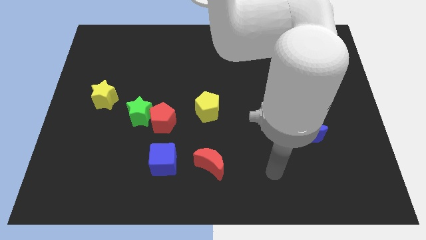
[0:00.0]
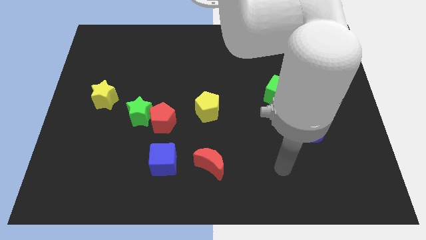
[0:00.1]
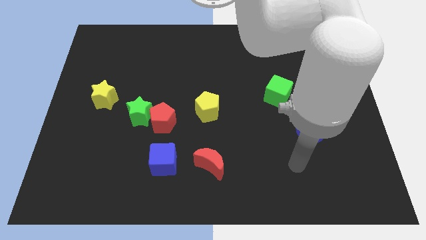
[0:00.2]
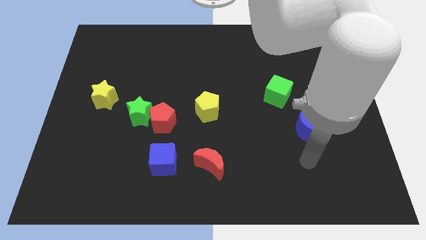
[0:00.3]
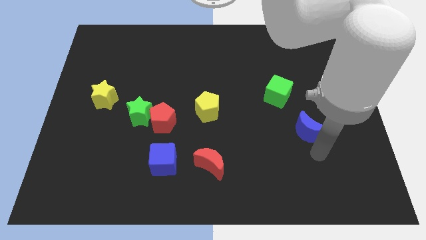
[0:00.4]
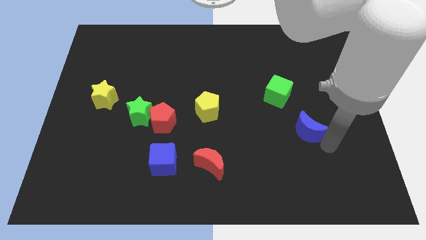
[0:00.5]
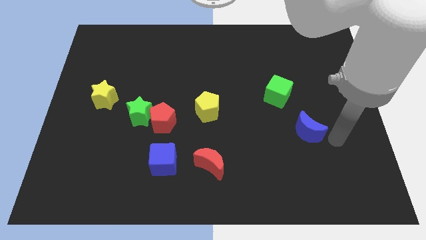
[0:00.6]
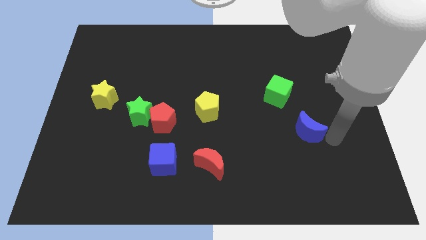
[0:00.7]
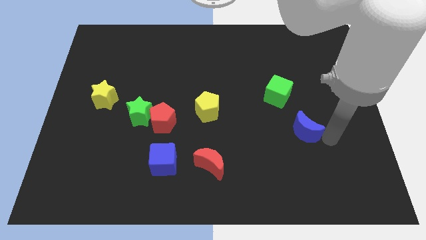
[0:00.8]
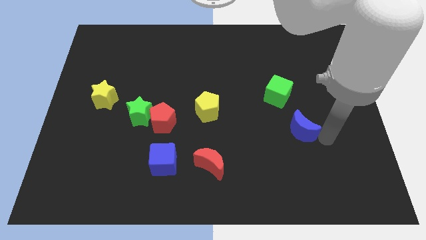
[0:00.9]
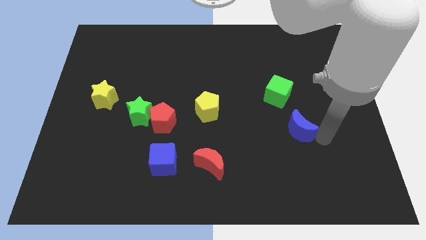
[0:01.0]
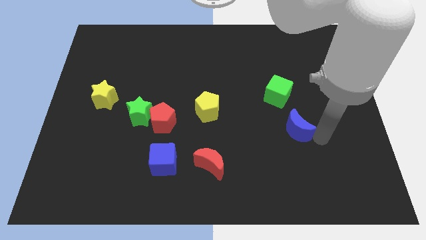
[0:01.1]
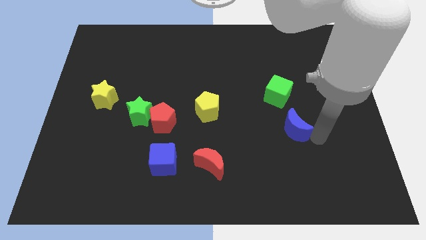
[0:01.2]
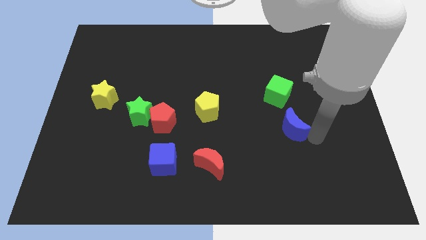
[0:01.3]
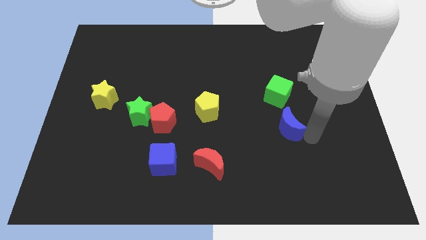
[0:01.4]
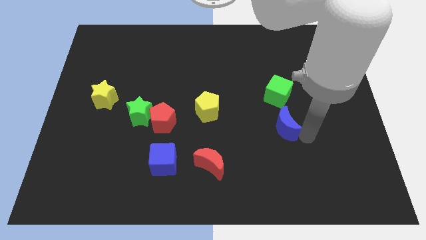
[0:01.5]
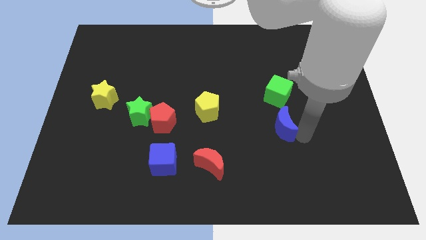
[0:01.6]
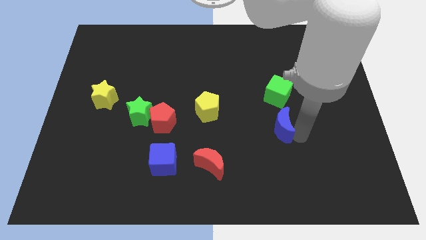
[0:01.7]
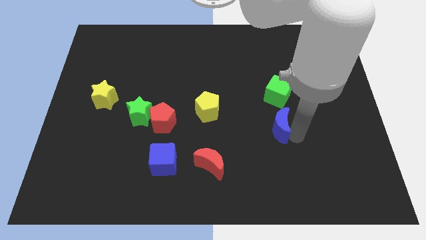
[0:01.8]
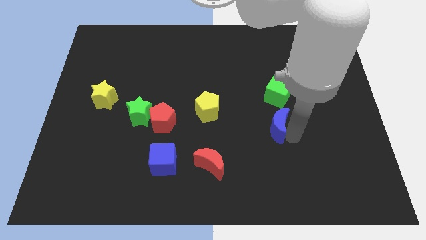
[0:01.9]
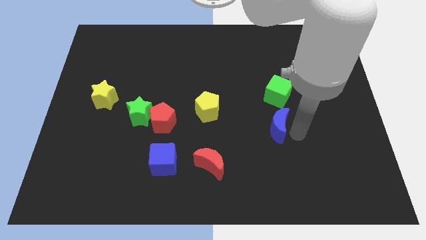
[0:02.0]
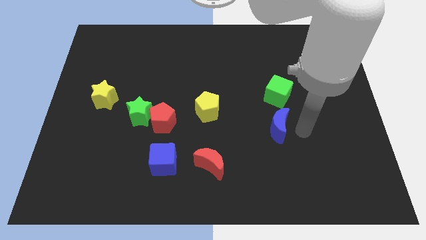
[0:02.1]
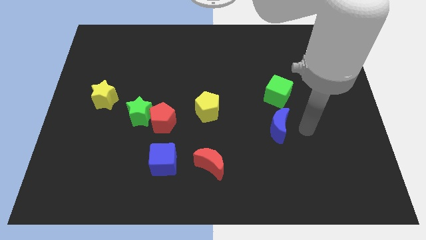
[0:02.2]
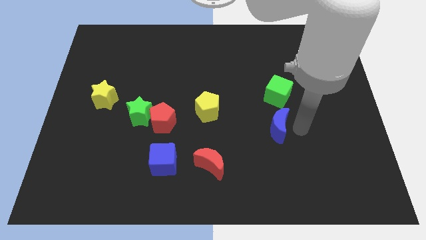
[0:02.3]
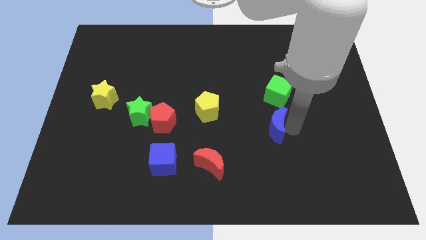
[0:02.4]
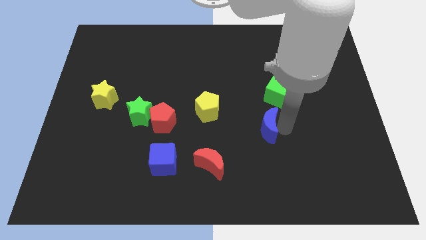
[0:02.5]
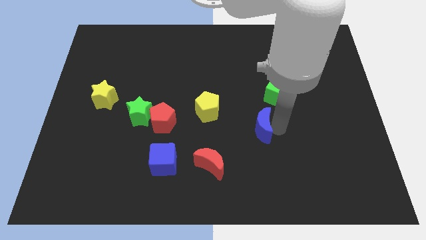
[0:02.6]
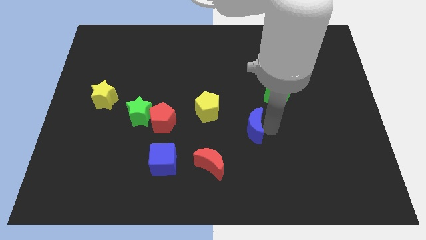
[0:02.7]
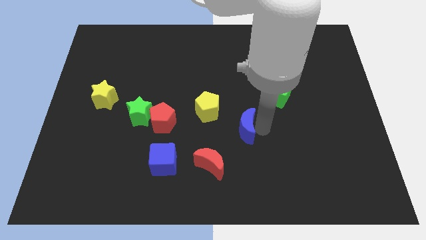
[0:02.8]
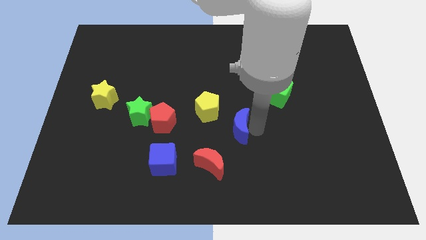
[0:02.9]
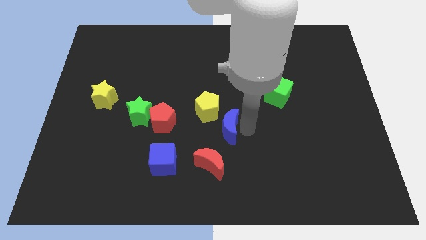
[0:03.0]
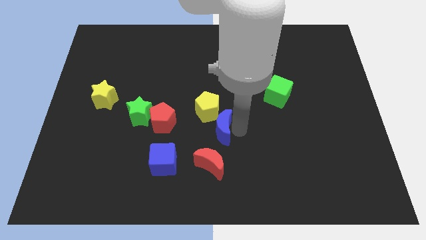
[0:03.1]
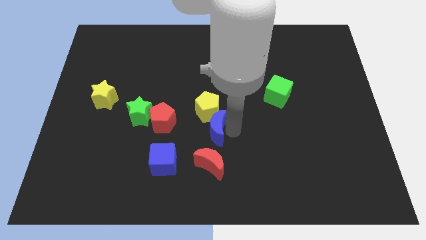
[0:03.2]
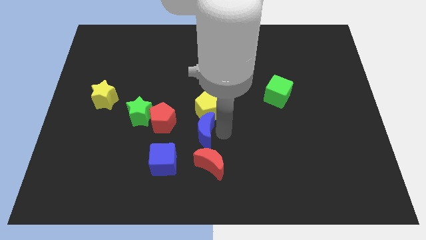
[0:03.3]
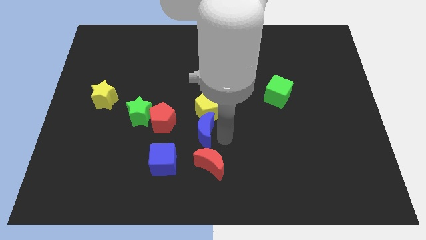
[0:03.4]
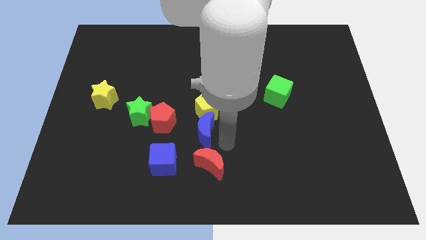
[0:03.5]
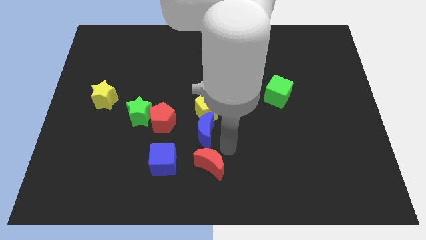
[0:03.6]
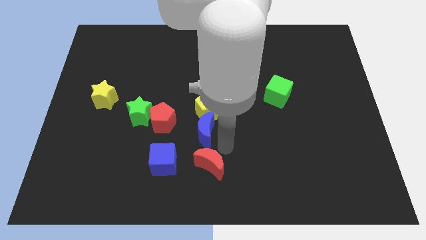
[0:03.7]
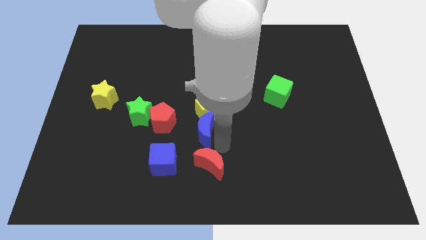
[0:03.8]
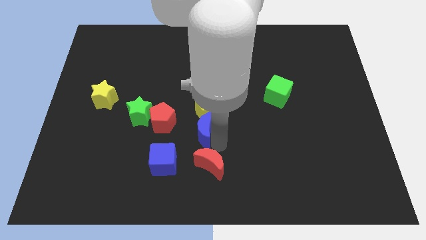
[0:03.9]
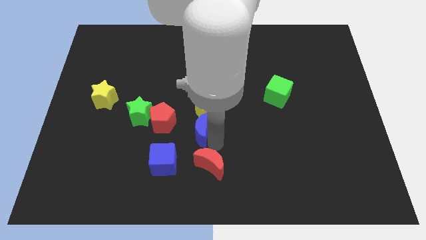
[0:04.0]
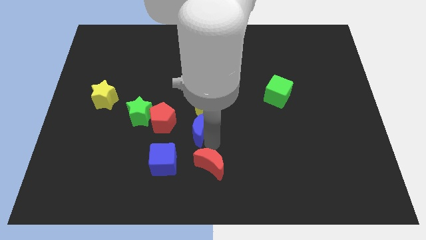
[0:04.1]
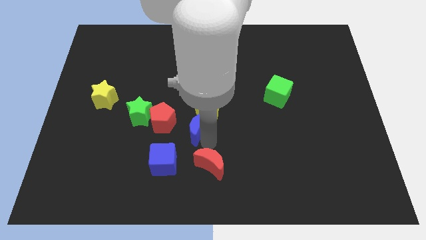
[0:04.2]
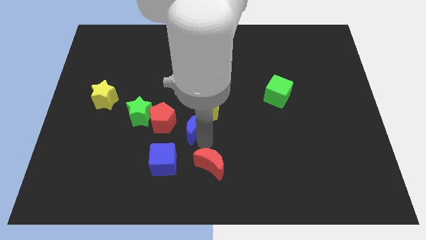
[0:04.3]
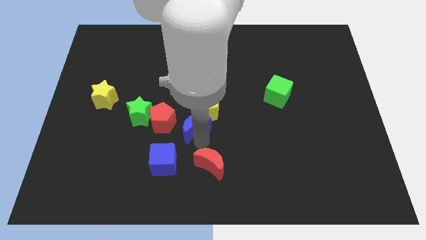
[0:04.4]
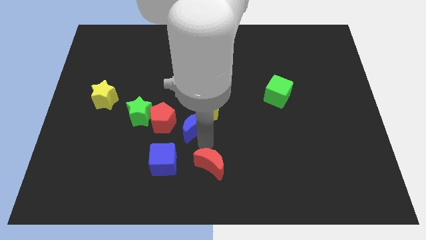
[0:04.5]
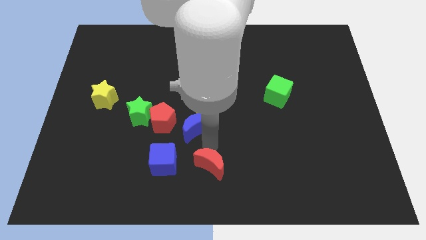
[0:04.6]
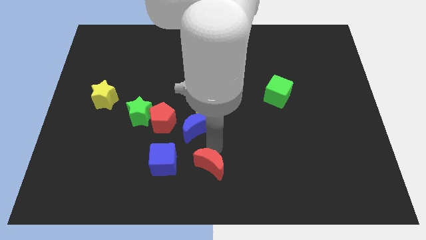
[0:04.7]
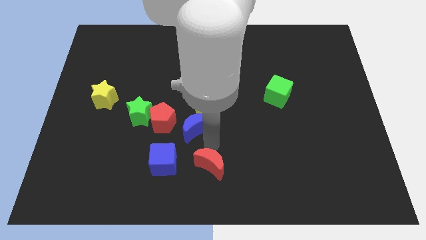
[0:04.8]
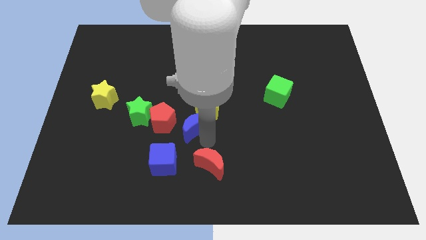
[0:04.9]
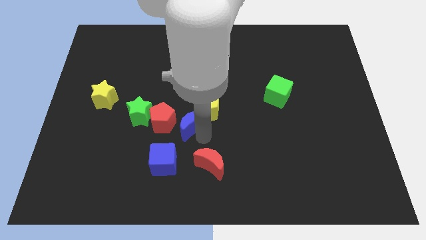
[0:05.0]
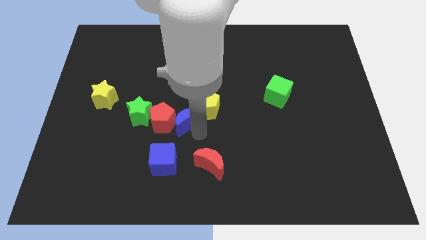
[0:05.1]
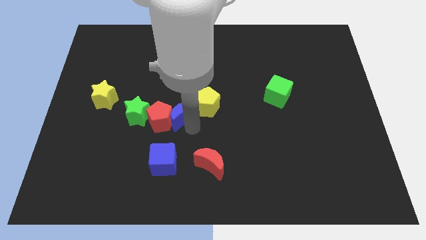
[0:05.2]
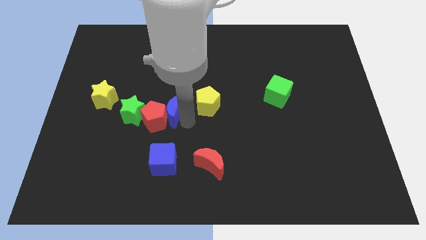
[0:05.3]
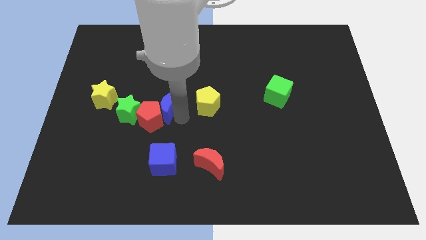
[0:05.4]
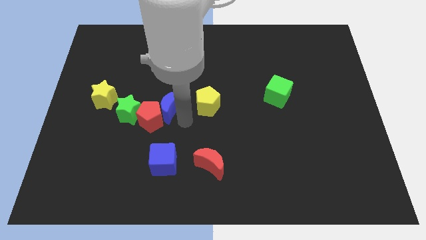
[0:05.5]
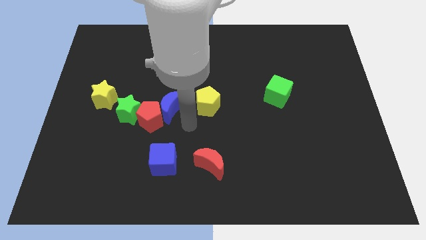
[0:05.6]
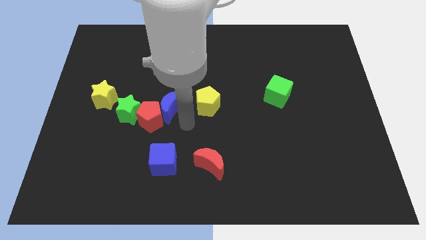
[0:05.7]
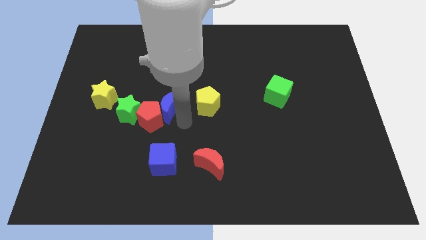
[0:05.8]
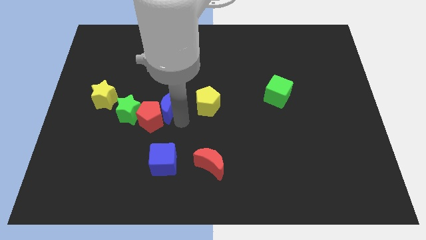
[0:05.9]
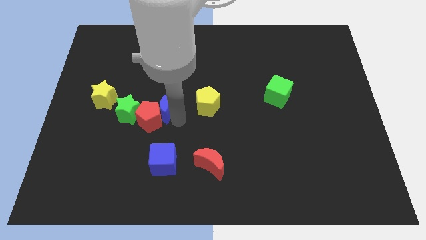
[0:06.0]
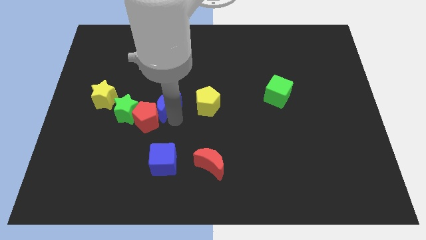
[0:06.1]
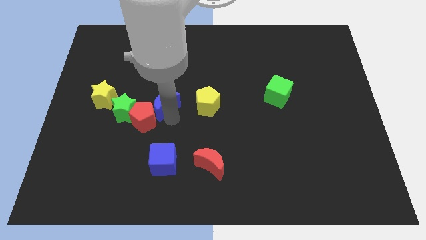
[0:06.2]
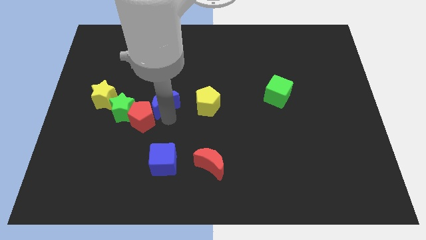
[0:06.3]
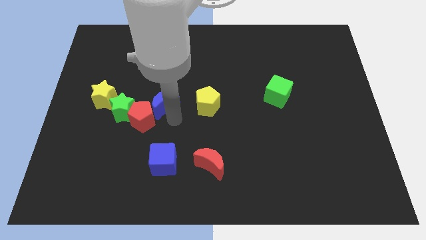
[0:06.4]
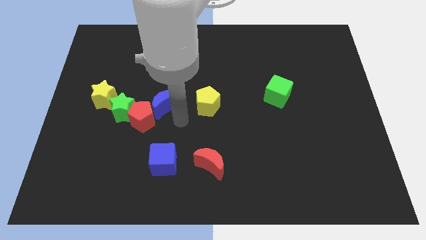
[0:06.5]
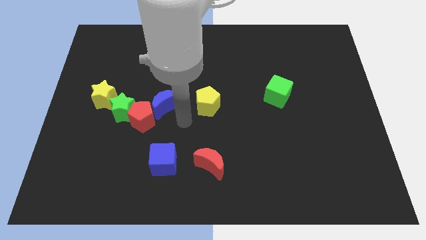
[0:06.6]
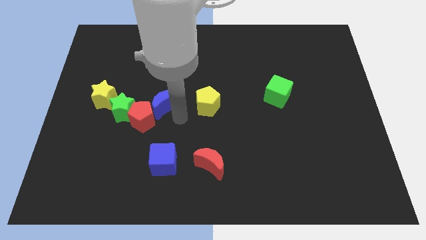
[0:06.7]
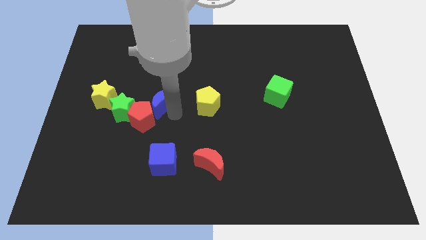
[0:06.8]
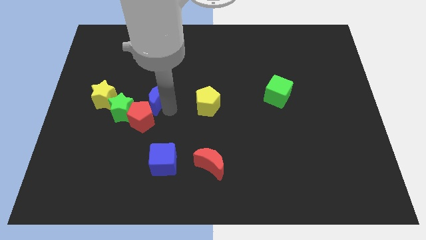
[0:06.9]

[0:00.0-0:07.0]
push the blue moon to the top right side of the green star
